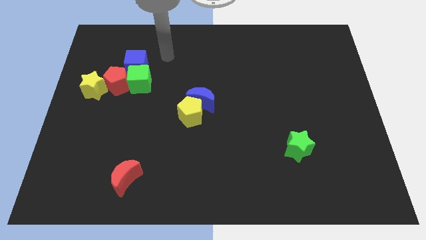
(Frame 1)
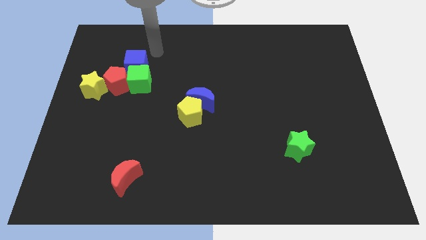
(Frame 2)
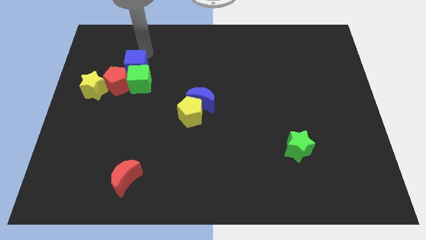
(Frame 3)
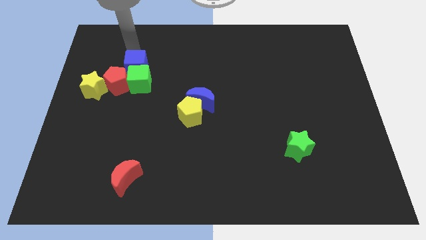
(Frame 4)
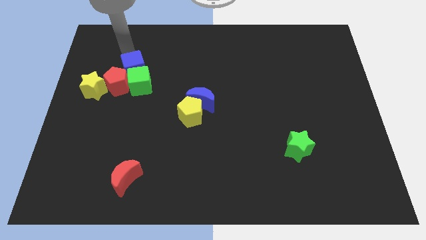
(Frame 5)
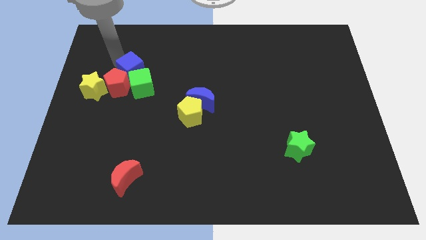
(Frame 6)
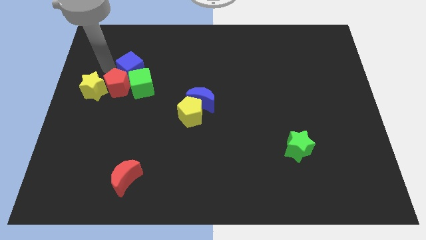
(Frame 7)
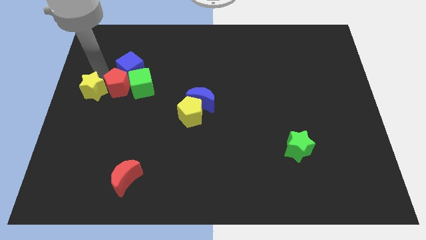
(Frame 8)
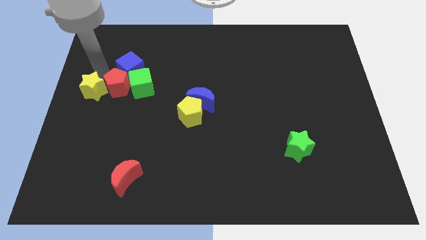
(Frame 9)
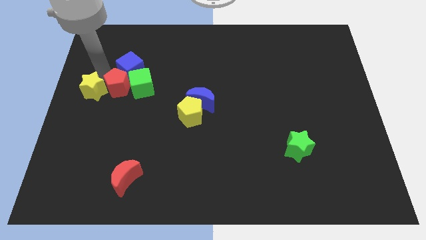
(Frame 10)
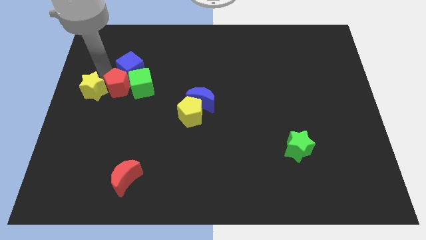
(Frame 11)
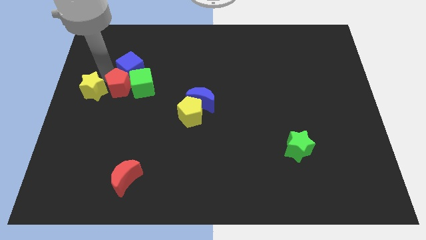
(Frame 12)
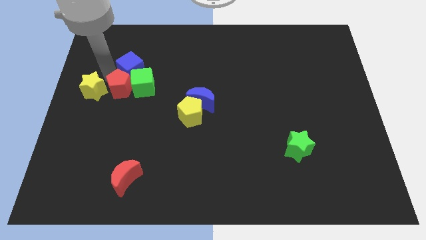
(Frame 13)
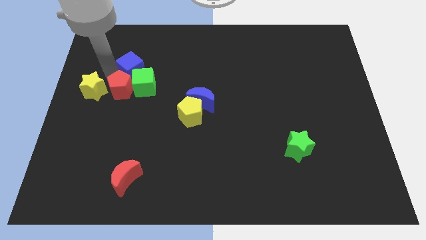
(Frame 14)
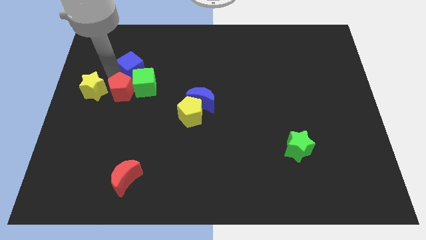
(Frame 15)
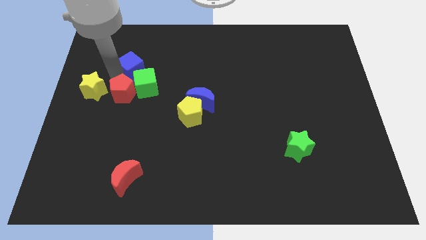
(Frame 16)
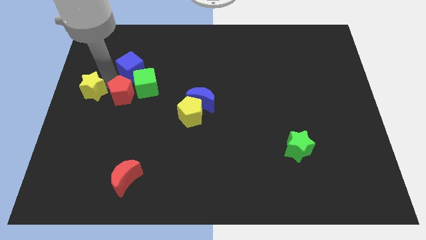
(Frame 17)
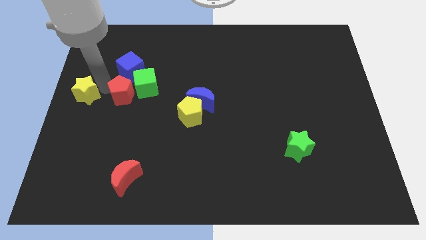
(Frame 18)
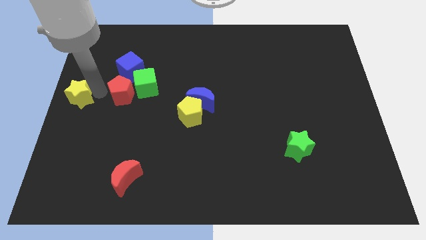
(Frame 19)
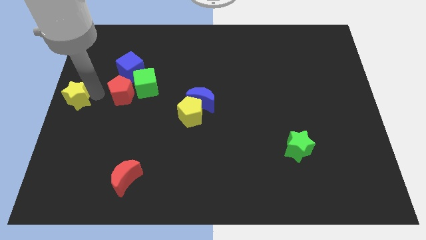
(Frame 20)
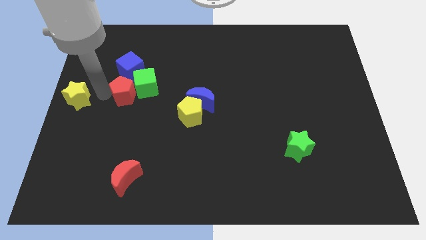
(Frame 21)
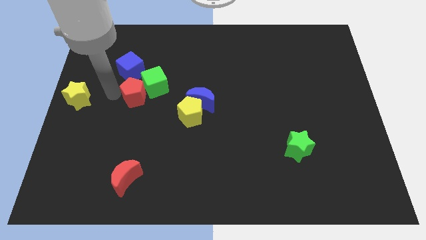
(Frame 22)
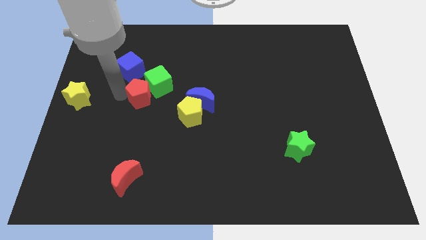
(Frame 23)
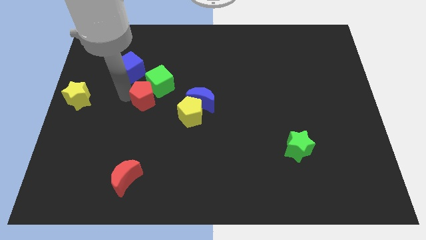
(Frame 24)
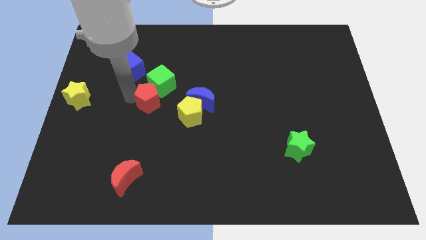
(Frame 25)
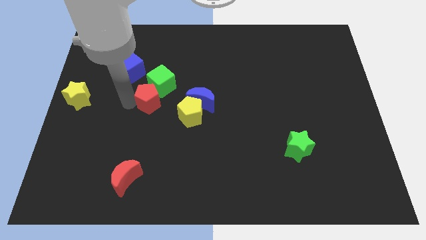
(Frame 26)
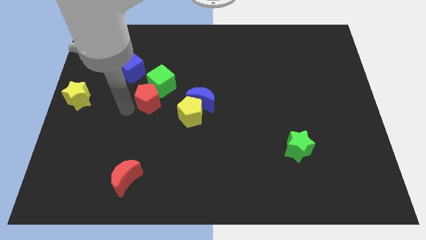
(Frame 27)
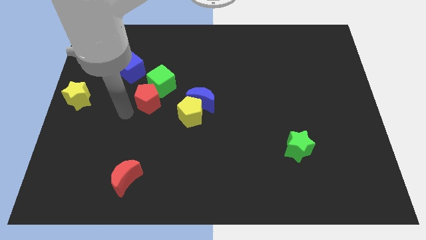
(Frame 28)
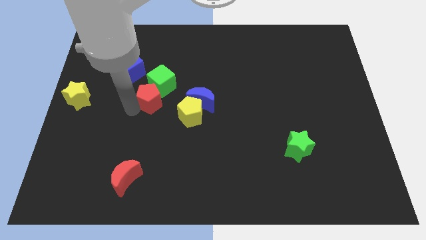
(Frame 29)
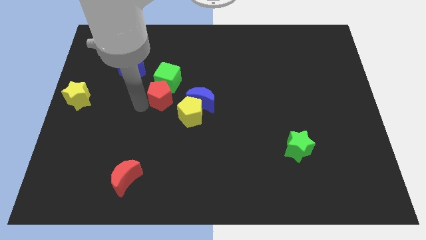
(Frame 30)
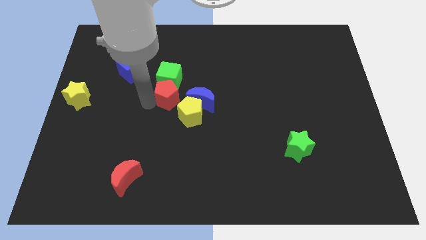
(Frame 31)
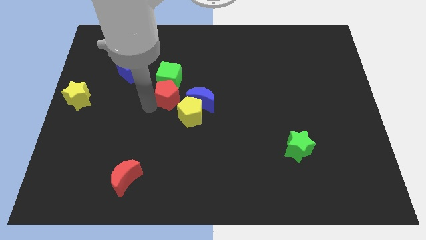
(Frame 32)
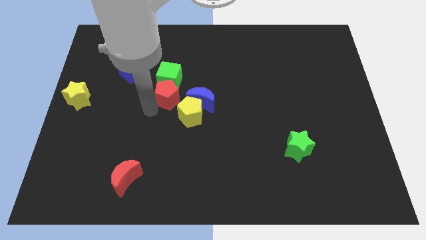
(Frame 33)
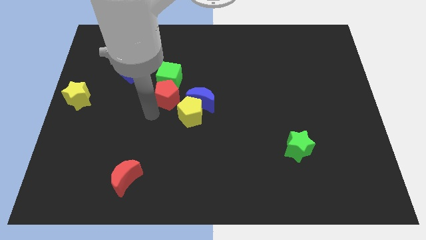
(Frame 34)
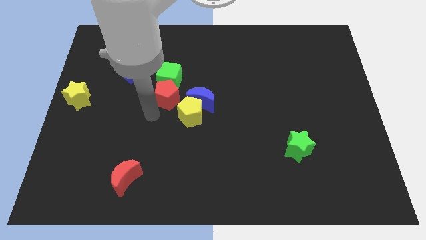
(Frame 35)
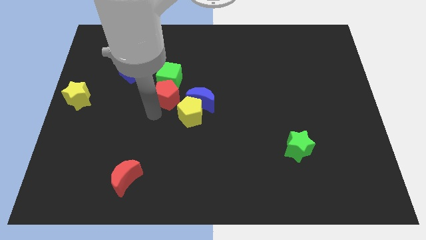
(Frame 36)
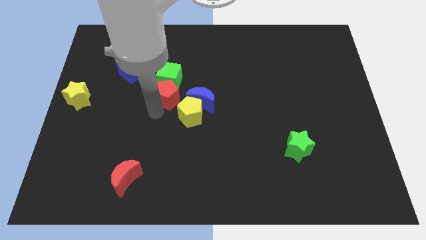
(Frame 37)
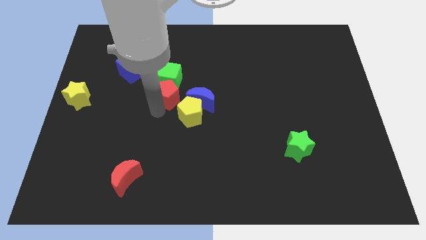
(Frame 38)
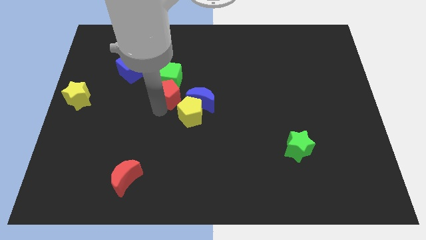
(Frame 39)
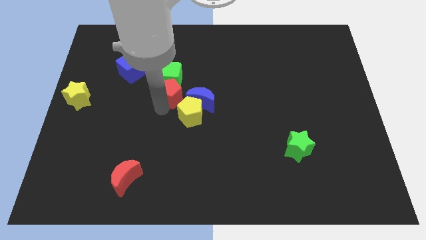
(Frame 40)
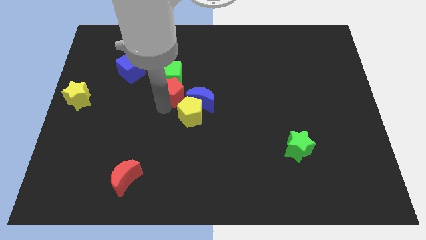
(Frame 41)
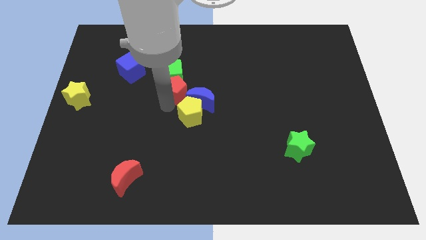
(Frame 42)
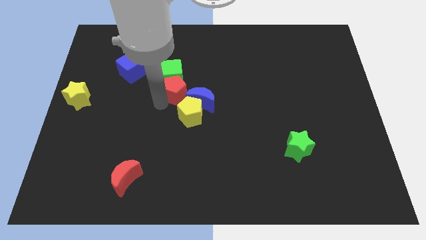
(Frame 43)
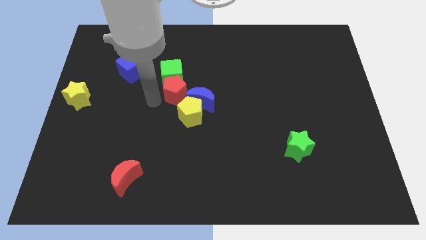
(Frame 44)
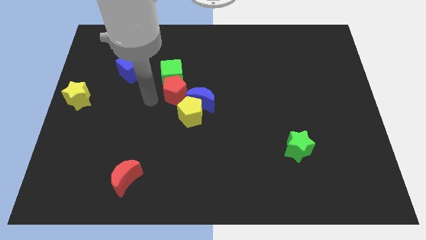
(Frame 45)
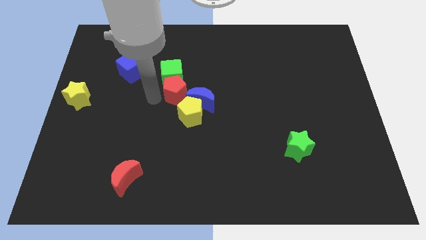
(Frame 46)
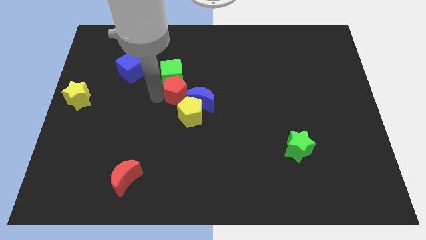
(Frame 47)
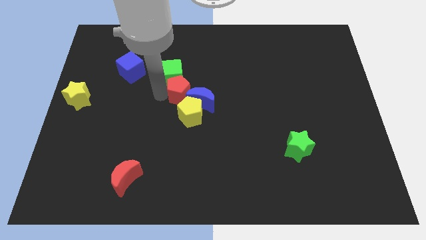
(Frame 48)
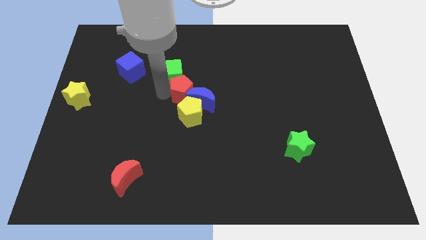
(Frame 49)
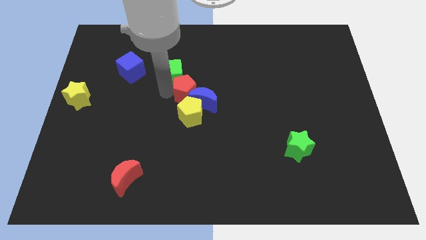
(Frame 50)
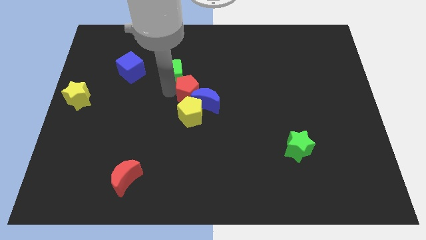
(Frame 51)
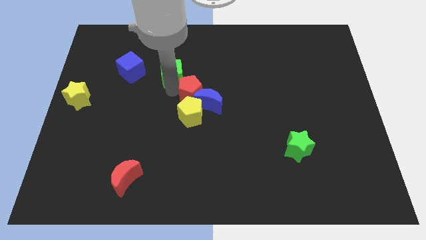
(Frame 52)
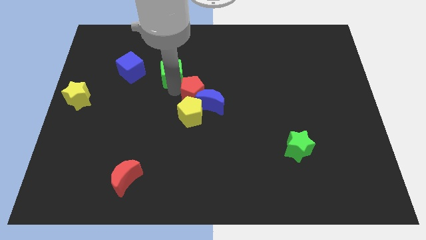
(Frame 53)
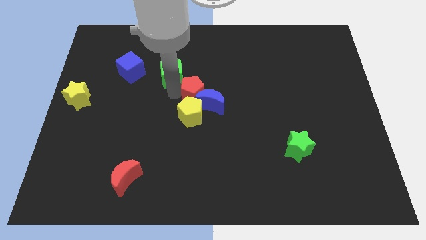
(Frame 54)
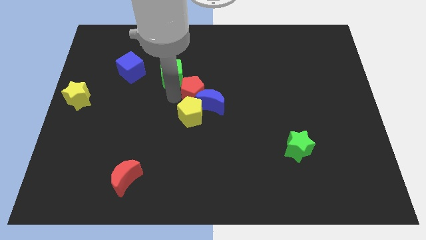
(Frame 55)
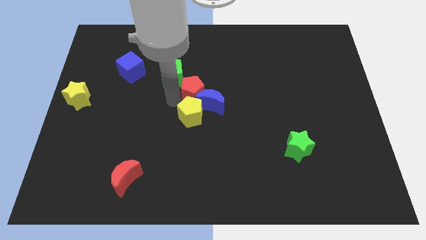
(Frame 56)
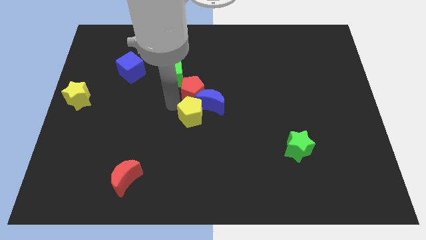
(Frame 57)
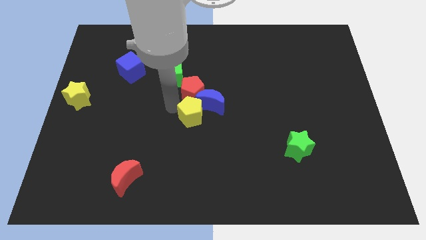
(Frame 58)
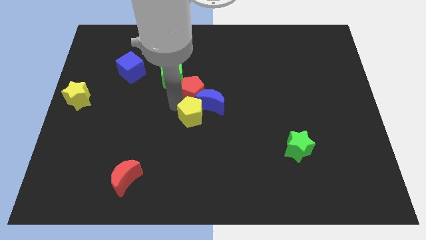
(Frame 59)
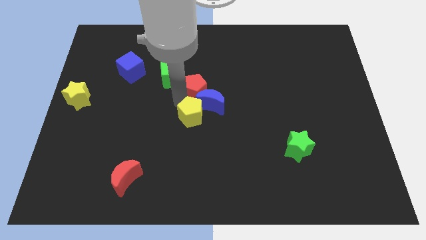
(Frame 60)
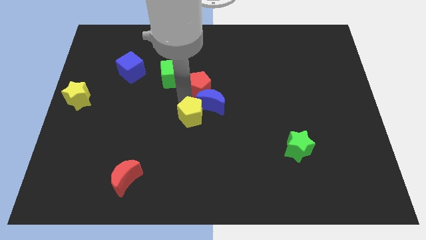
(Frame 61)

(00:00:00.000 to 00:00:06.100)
push the red pentagon right

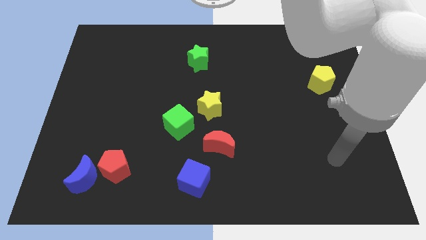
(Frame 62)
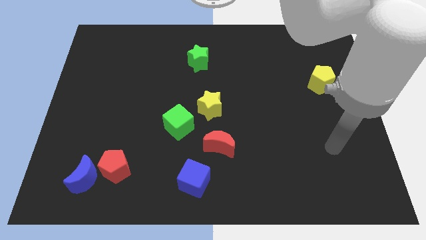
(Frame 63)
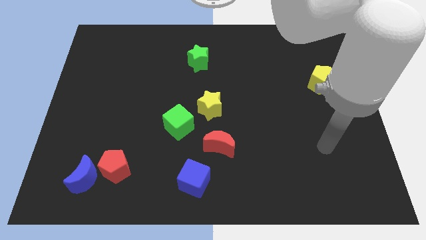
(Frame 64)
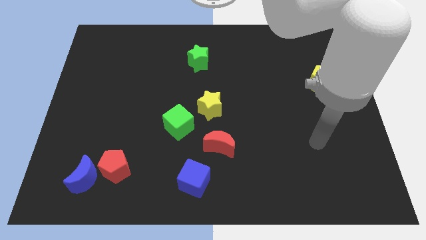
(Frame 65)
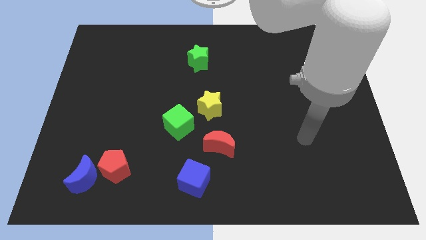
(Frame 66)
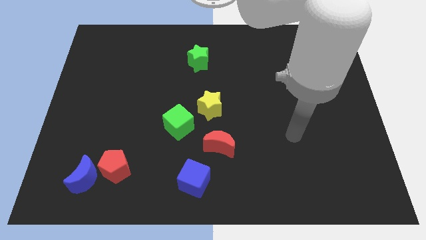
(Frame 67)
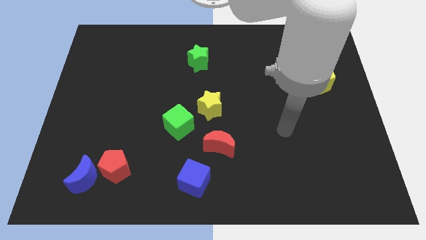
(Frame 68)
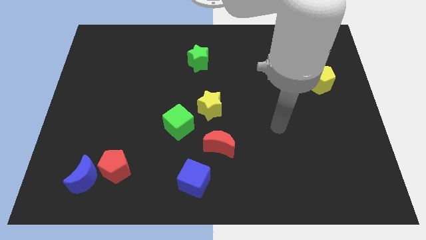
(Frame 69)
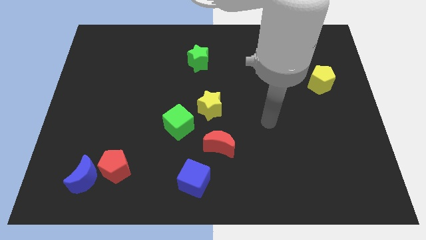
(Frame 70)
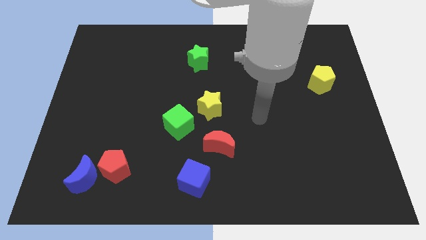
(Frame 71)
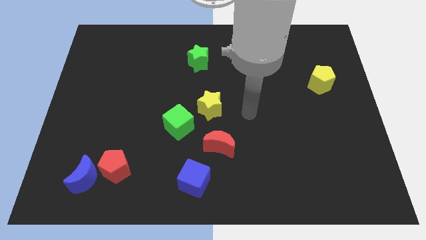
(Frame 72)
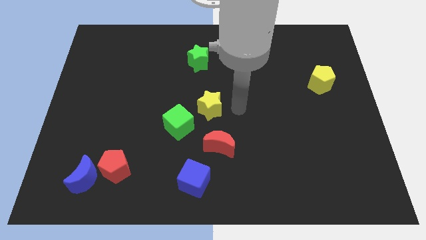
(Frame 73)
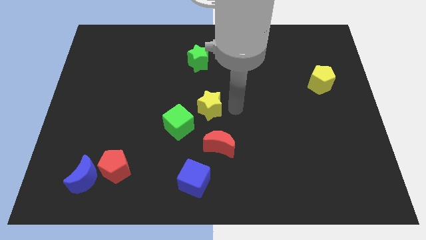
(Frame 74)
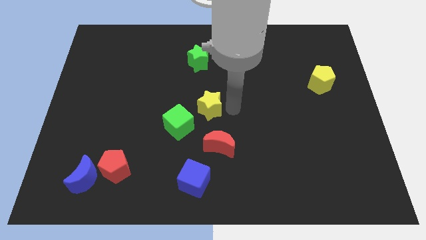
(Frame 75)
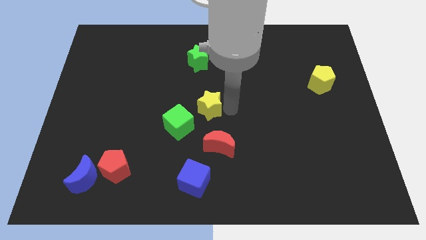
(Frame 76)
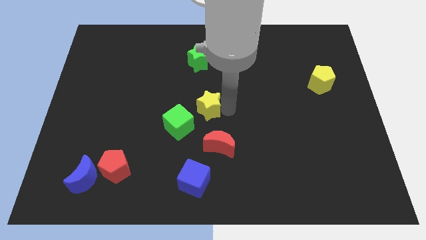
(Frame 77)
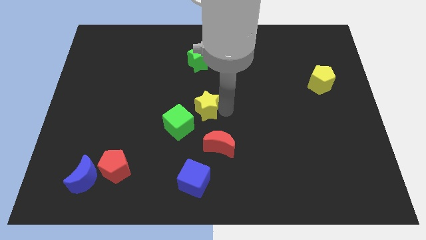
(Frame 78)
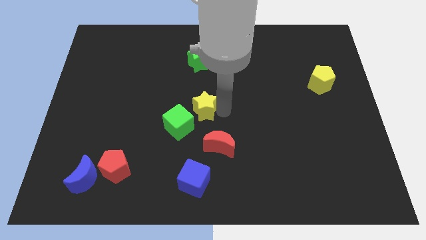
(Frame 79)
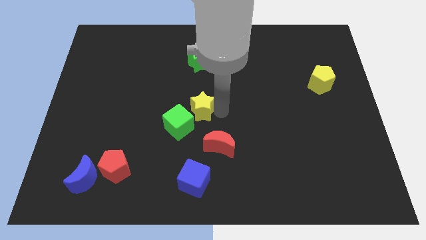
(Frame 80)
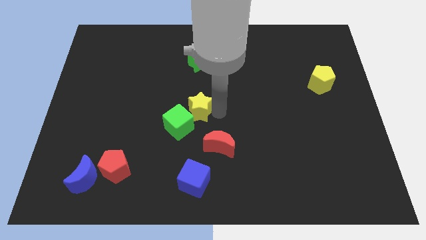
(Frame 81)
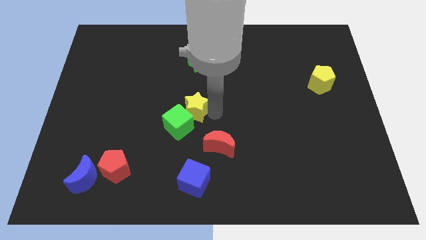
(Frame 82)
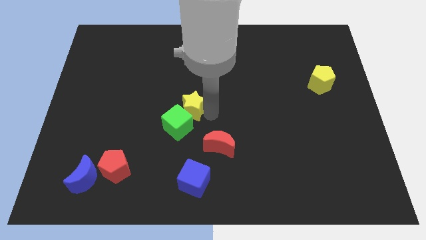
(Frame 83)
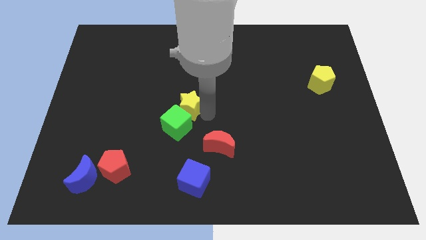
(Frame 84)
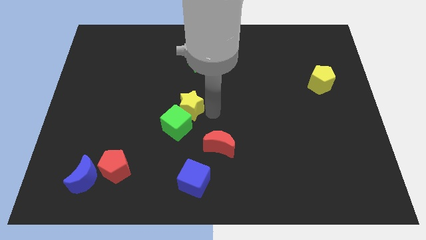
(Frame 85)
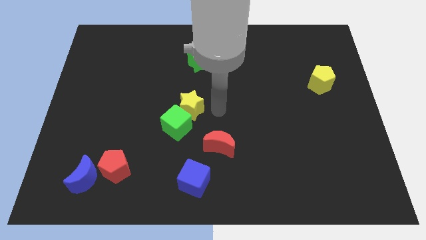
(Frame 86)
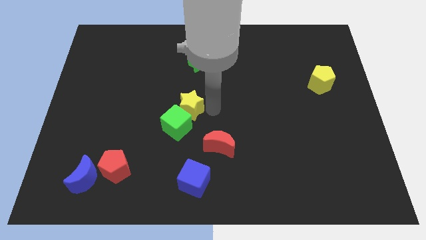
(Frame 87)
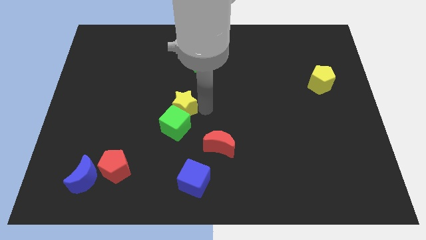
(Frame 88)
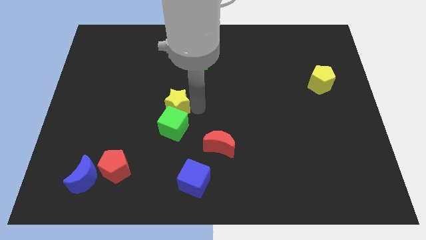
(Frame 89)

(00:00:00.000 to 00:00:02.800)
push the yellow star a little bit left
